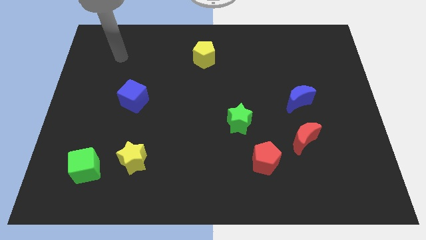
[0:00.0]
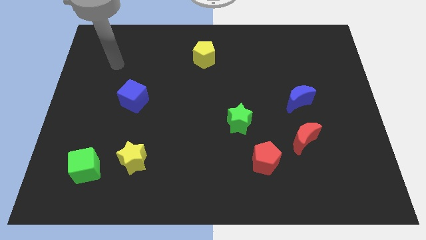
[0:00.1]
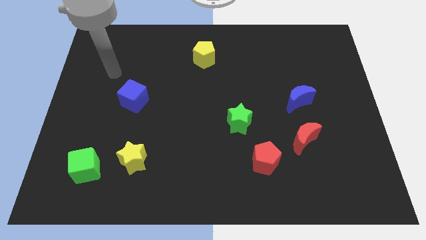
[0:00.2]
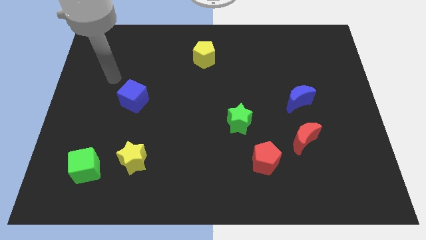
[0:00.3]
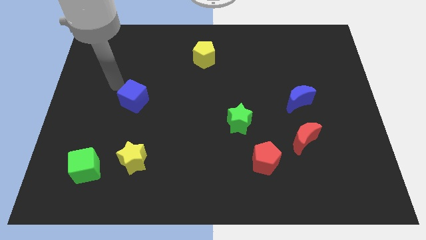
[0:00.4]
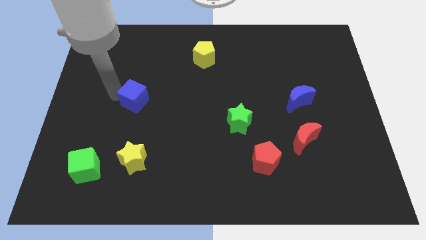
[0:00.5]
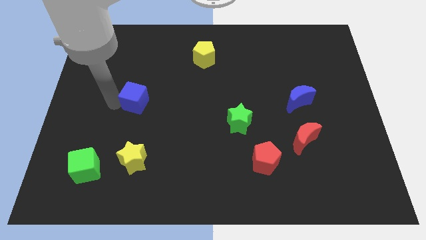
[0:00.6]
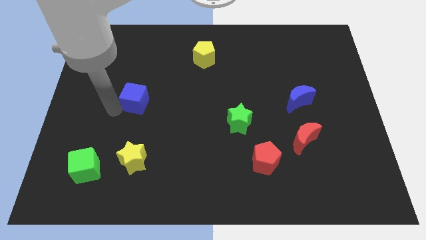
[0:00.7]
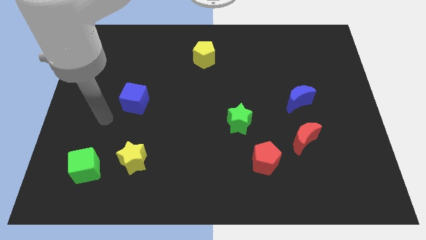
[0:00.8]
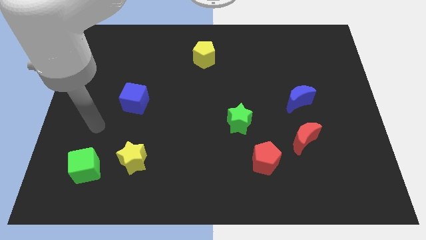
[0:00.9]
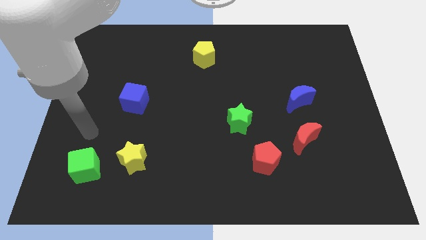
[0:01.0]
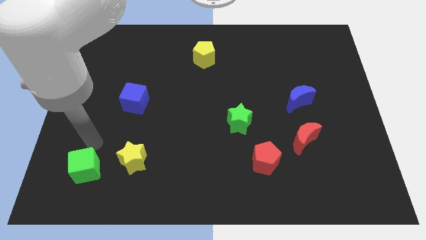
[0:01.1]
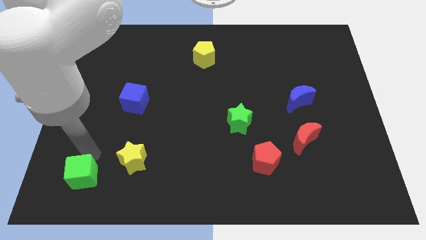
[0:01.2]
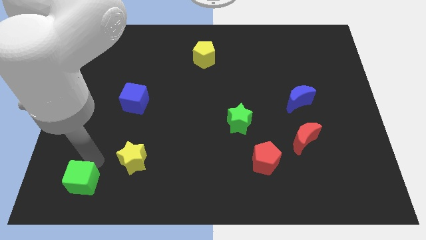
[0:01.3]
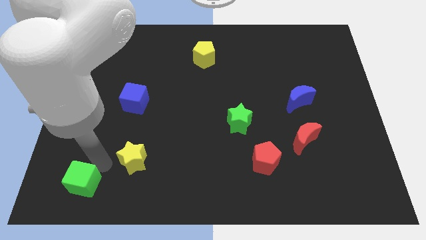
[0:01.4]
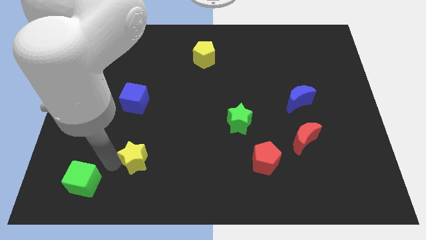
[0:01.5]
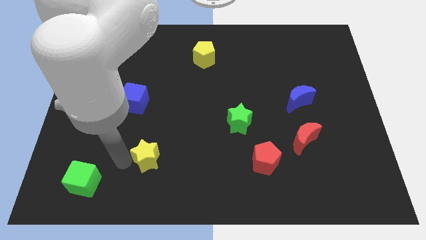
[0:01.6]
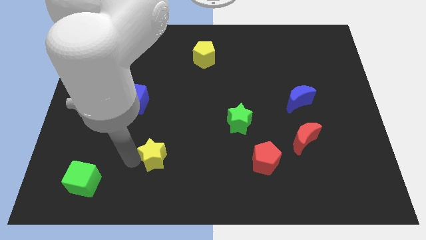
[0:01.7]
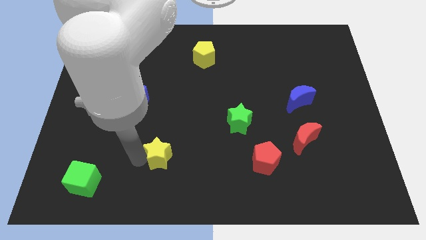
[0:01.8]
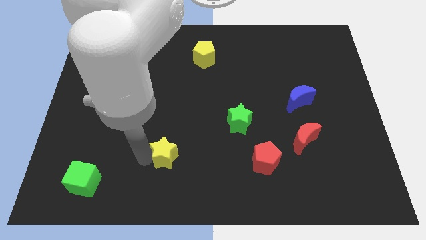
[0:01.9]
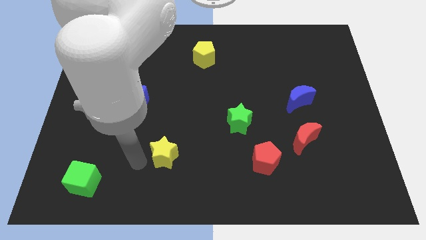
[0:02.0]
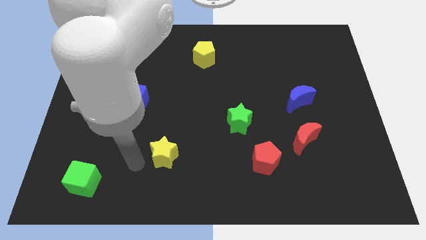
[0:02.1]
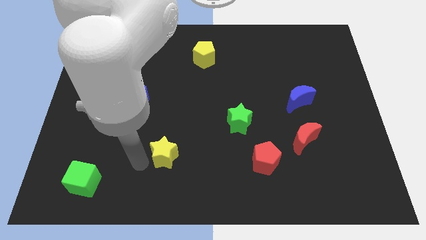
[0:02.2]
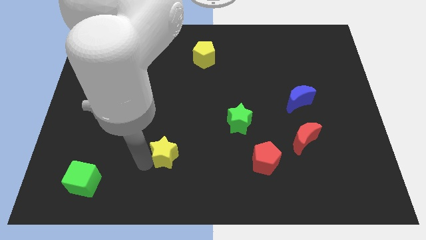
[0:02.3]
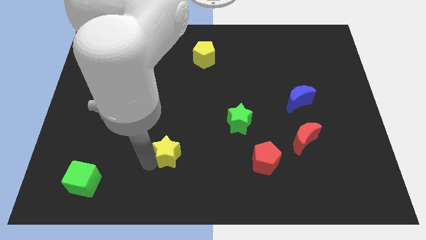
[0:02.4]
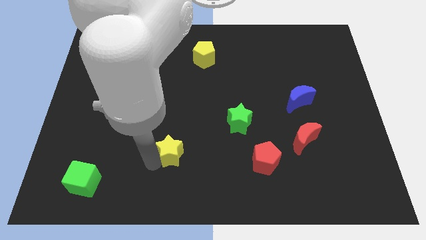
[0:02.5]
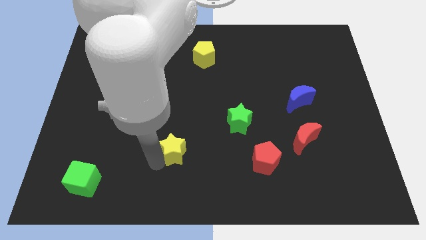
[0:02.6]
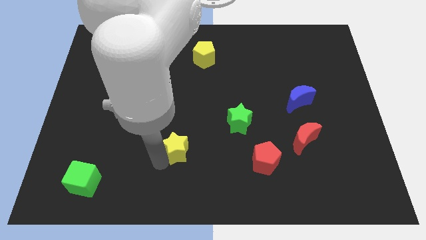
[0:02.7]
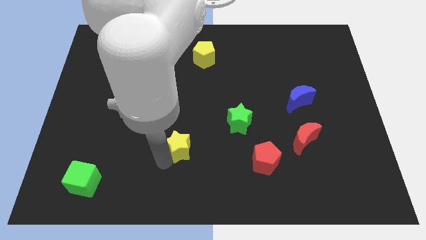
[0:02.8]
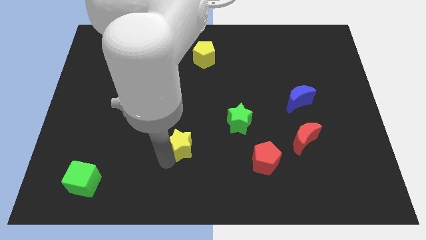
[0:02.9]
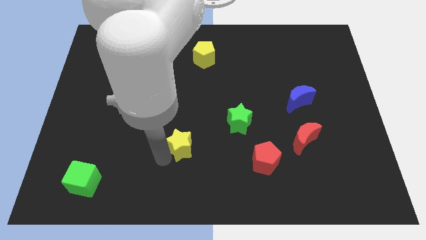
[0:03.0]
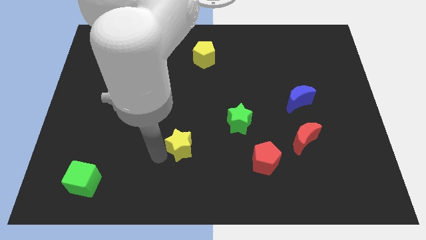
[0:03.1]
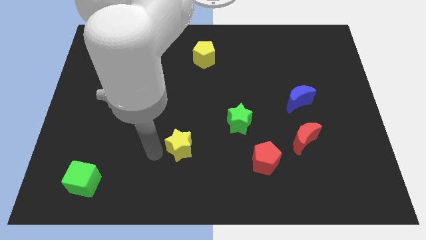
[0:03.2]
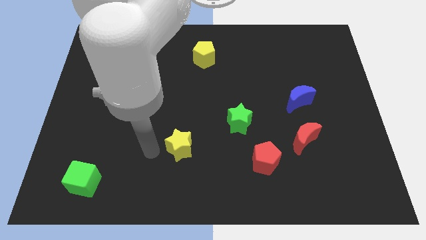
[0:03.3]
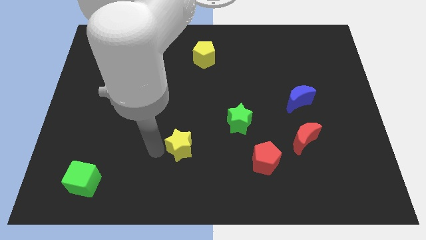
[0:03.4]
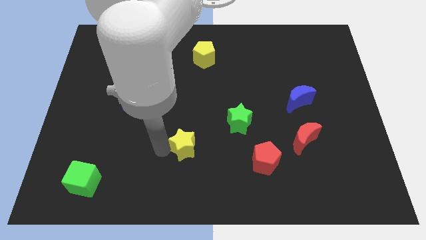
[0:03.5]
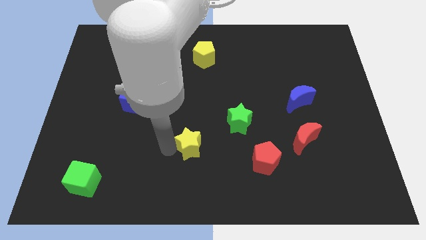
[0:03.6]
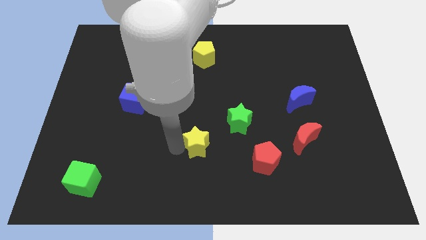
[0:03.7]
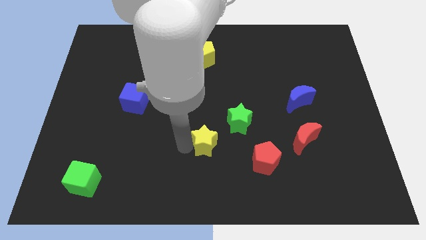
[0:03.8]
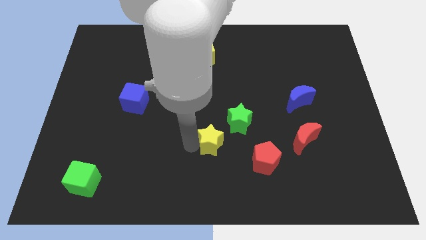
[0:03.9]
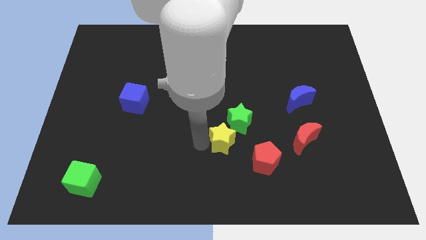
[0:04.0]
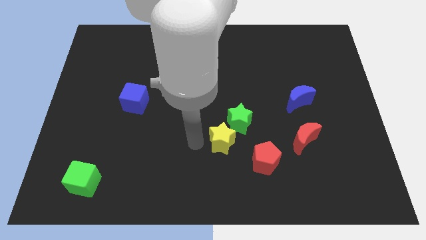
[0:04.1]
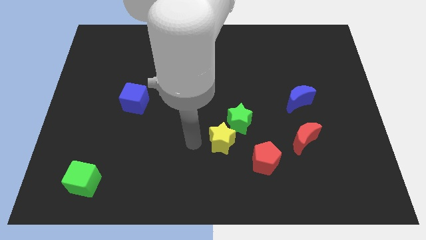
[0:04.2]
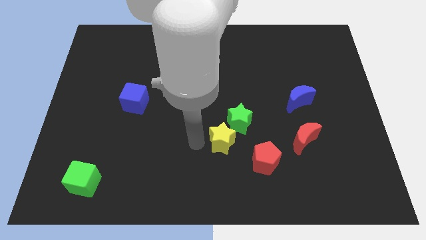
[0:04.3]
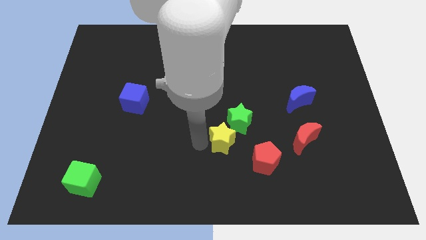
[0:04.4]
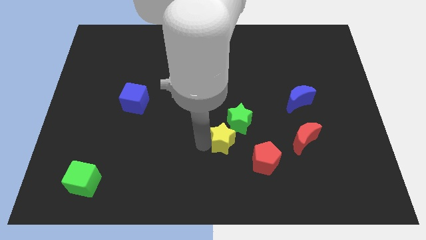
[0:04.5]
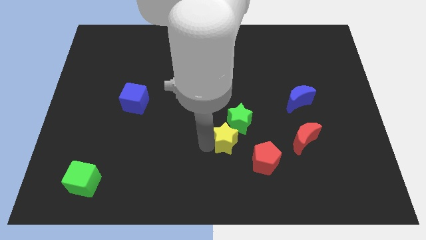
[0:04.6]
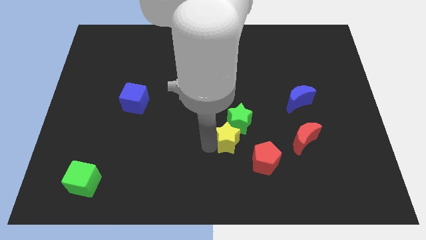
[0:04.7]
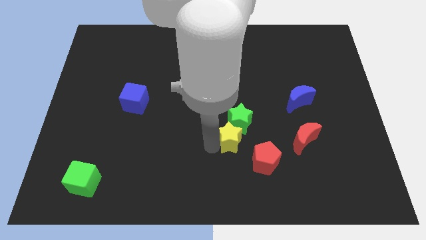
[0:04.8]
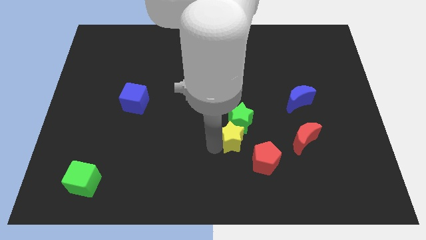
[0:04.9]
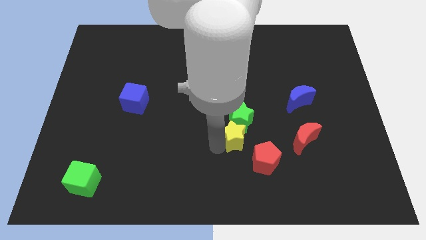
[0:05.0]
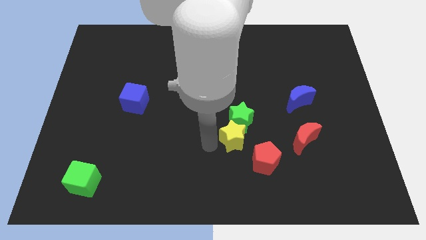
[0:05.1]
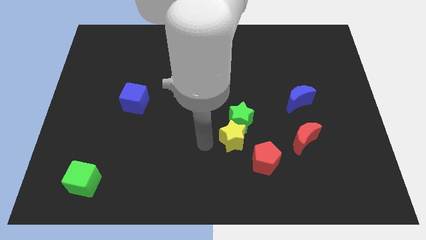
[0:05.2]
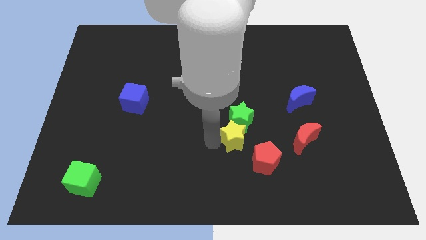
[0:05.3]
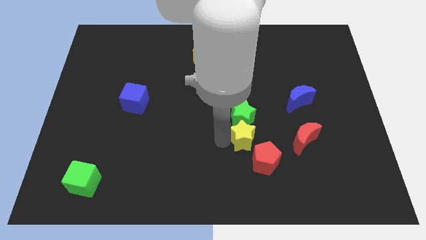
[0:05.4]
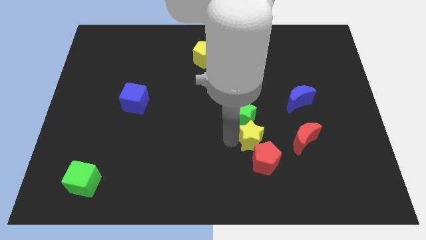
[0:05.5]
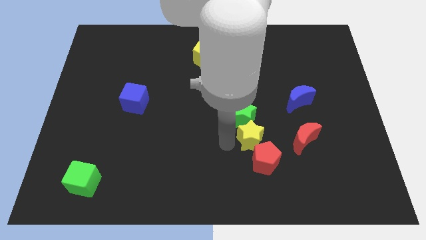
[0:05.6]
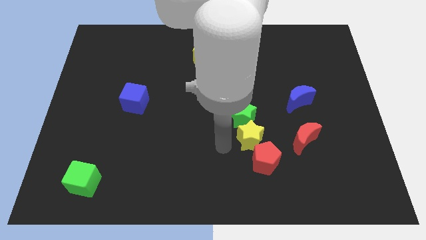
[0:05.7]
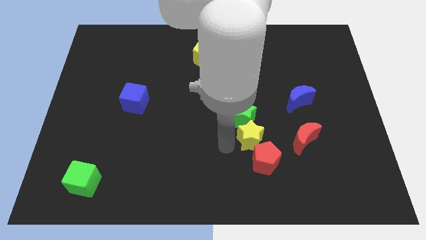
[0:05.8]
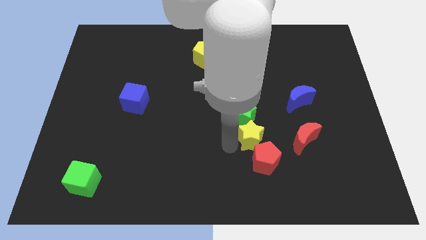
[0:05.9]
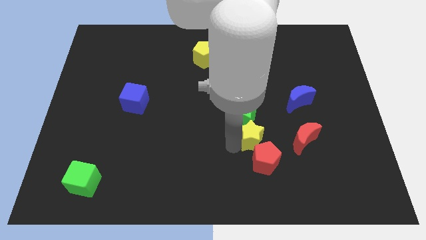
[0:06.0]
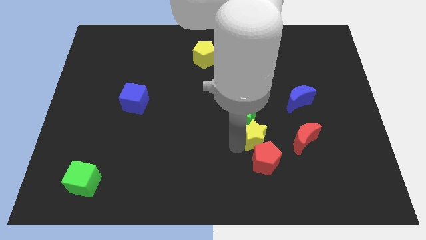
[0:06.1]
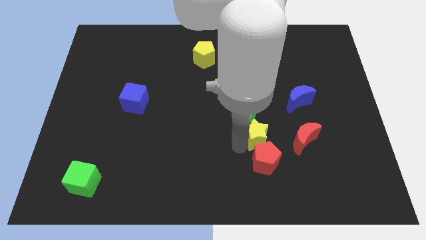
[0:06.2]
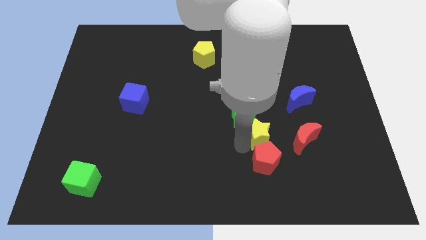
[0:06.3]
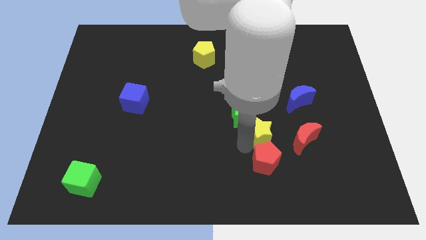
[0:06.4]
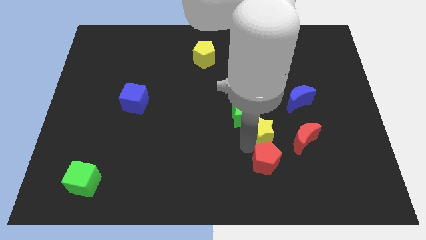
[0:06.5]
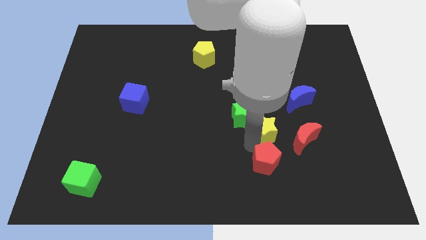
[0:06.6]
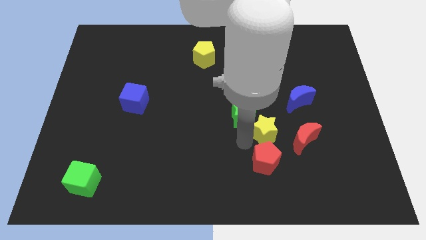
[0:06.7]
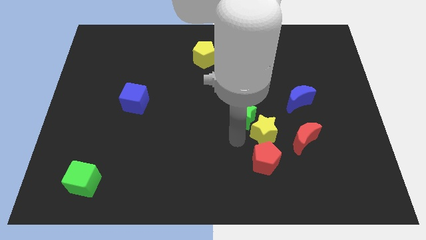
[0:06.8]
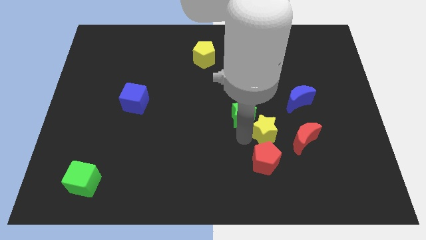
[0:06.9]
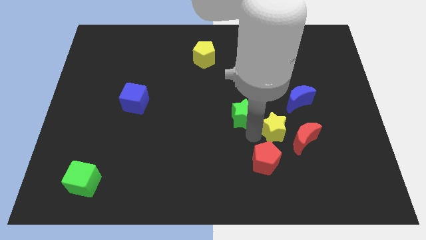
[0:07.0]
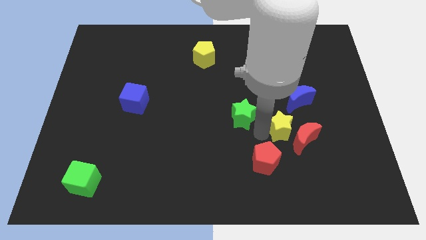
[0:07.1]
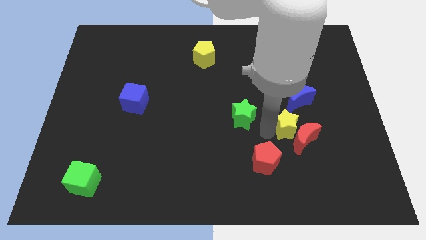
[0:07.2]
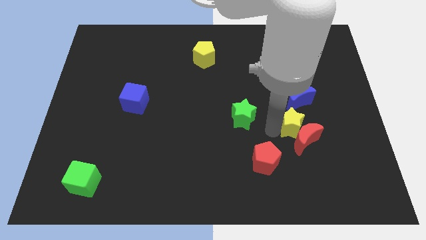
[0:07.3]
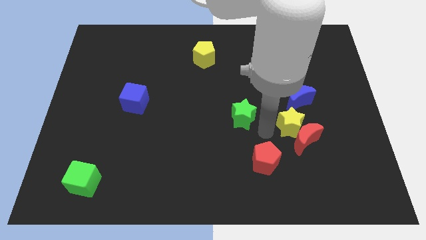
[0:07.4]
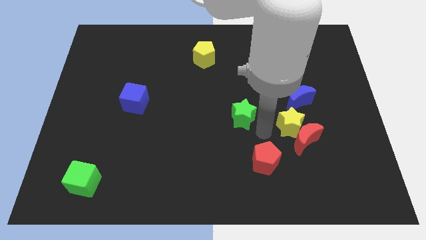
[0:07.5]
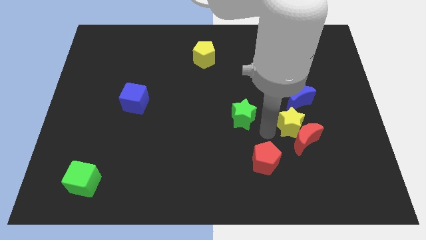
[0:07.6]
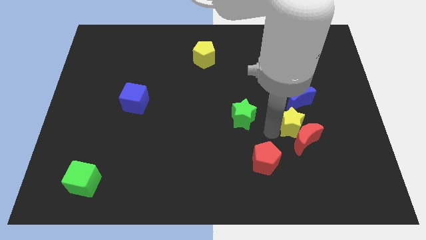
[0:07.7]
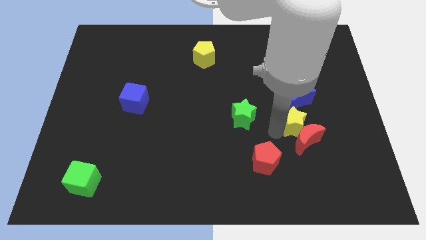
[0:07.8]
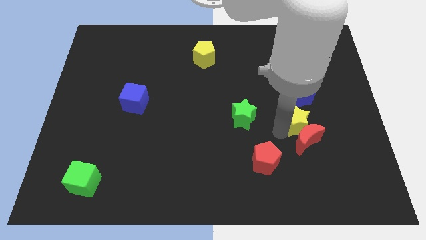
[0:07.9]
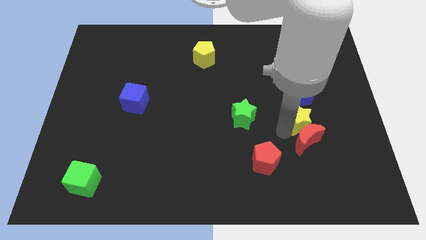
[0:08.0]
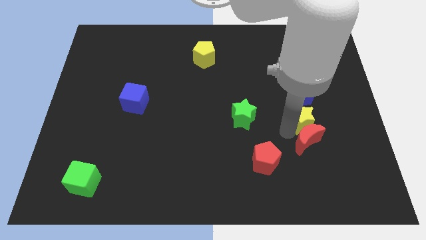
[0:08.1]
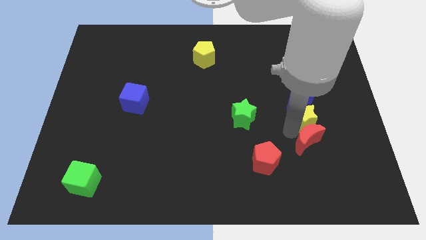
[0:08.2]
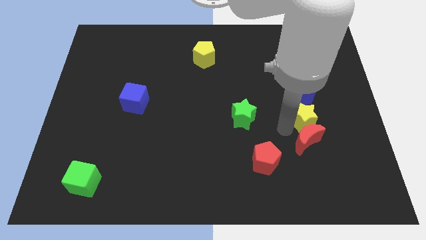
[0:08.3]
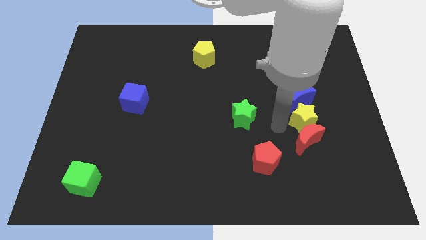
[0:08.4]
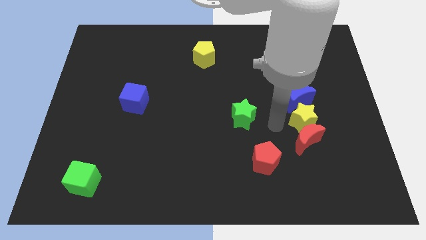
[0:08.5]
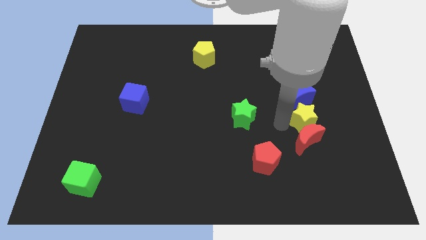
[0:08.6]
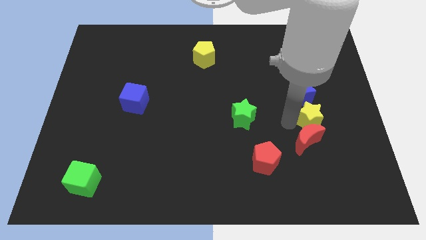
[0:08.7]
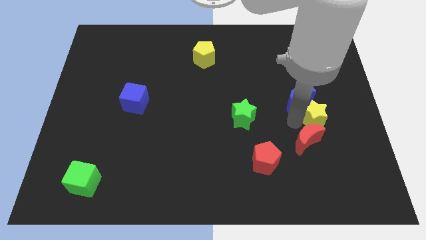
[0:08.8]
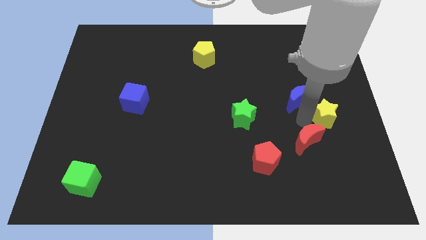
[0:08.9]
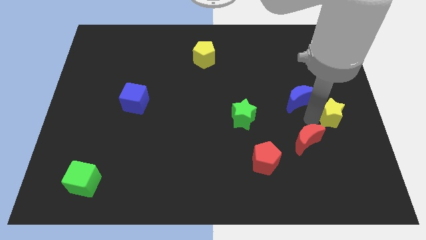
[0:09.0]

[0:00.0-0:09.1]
slide the yellow star to the right side of the board
